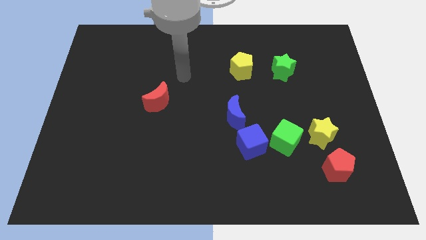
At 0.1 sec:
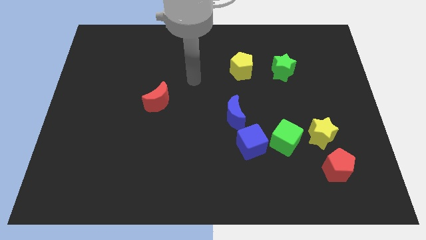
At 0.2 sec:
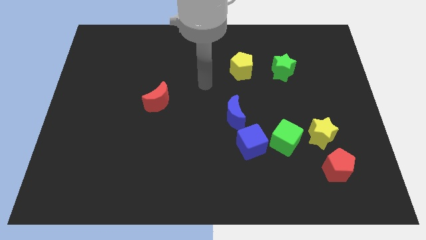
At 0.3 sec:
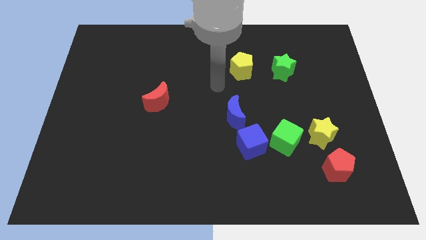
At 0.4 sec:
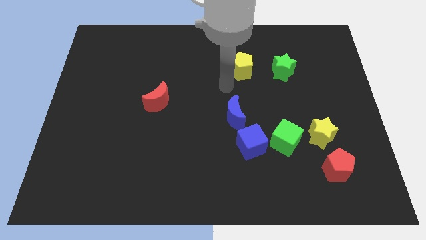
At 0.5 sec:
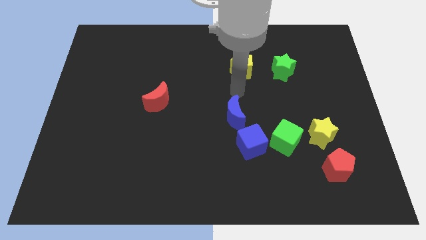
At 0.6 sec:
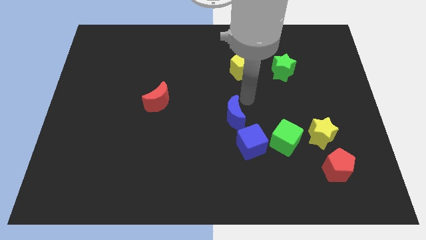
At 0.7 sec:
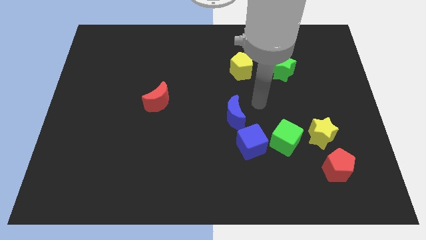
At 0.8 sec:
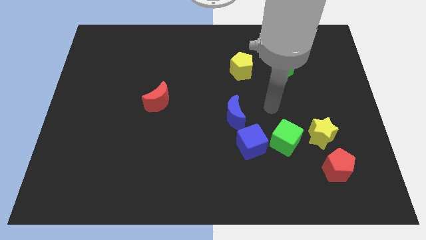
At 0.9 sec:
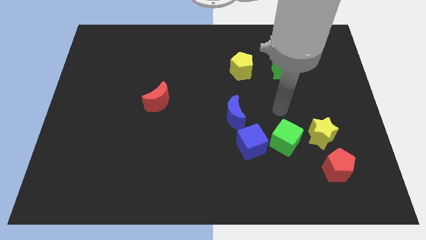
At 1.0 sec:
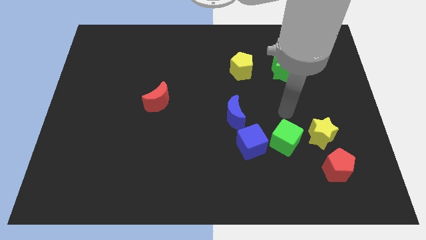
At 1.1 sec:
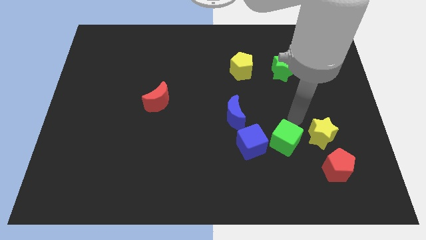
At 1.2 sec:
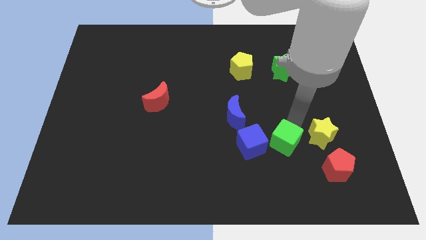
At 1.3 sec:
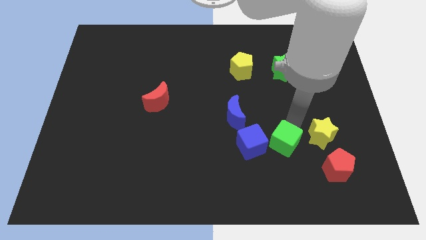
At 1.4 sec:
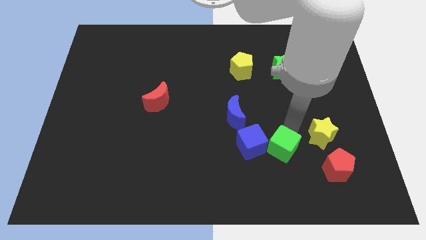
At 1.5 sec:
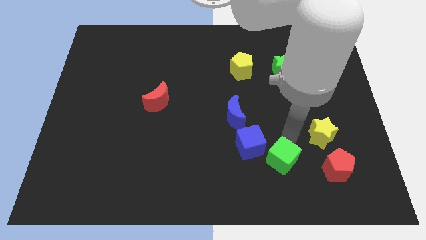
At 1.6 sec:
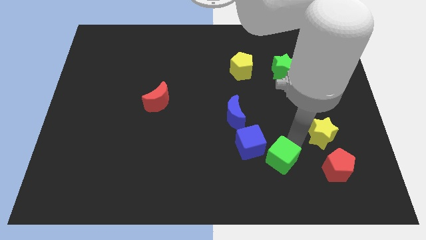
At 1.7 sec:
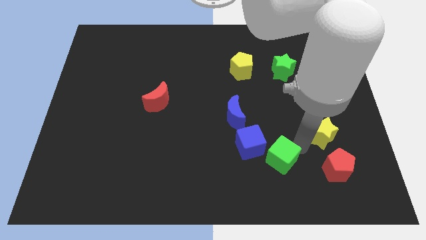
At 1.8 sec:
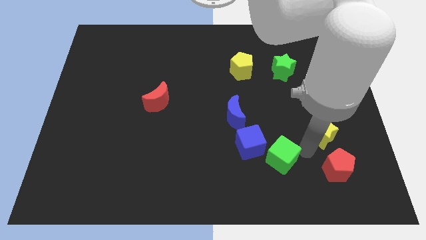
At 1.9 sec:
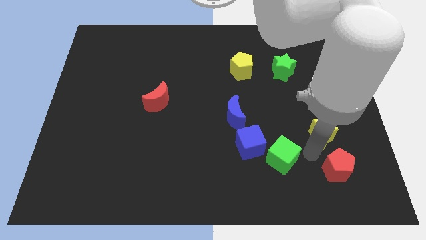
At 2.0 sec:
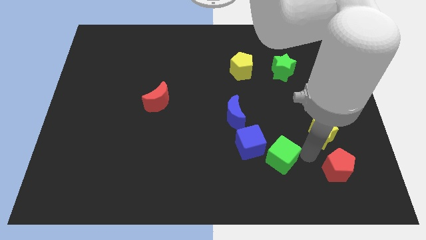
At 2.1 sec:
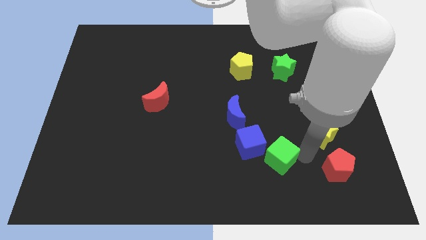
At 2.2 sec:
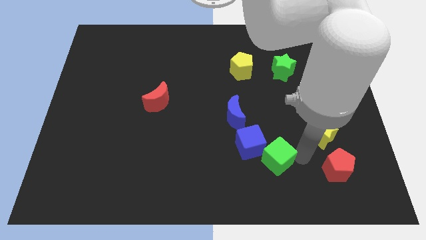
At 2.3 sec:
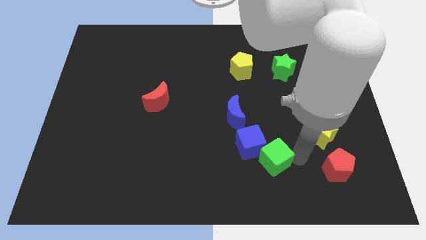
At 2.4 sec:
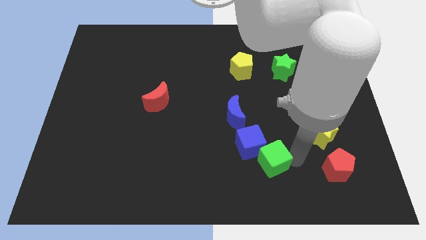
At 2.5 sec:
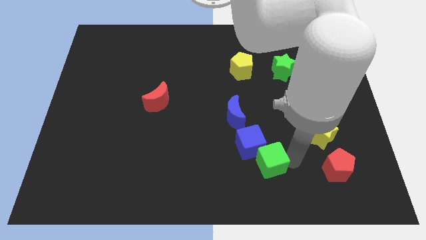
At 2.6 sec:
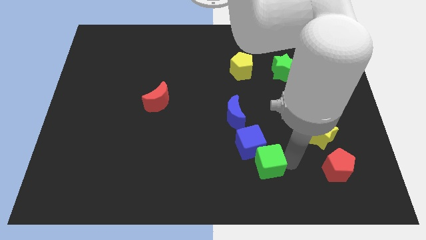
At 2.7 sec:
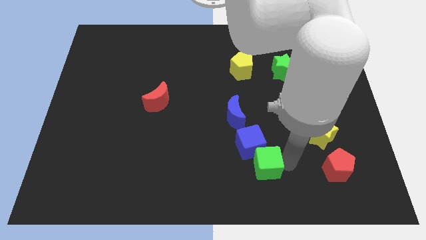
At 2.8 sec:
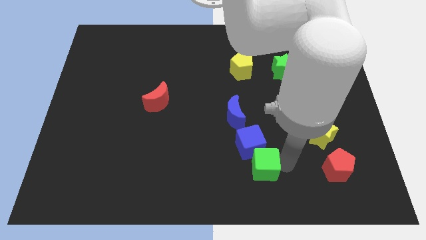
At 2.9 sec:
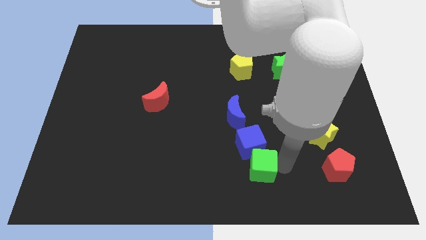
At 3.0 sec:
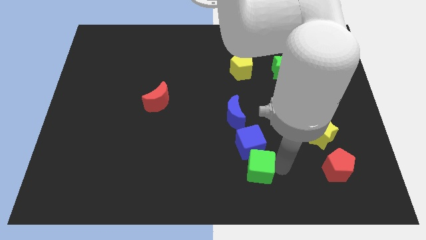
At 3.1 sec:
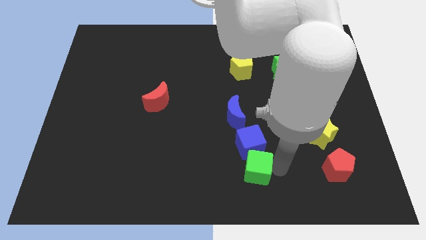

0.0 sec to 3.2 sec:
separate the green cube from the blue cube and yellow star

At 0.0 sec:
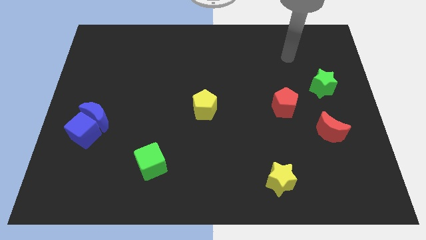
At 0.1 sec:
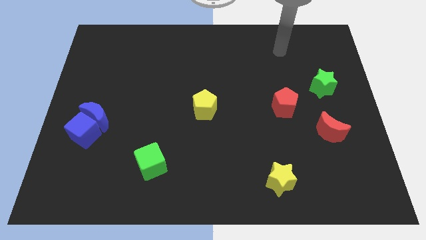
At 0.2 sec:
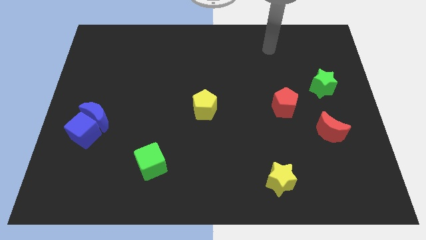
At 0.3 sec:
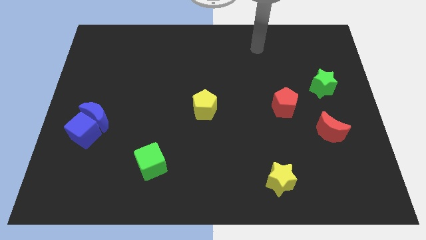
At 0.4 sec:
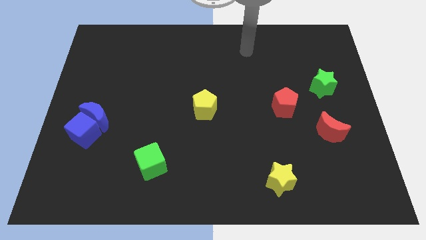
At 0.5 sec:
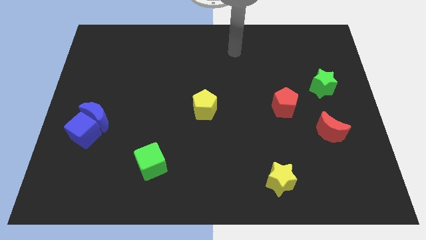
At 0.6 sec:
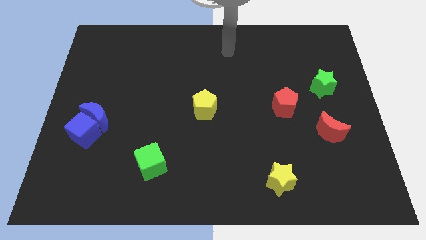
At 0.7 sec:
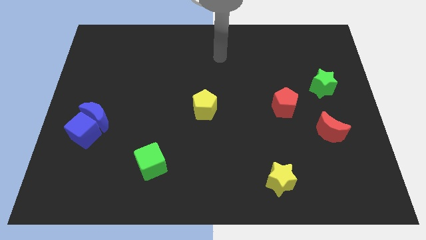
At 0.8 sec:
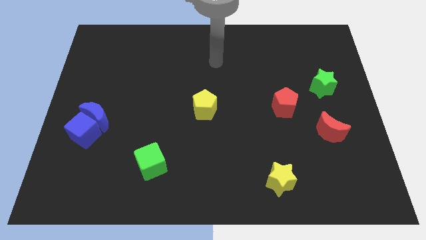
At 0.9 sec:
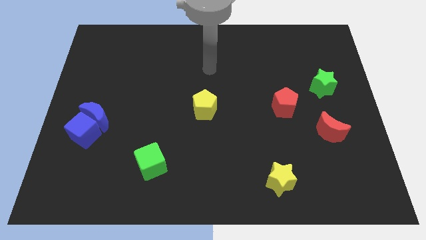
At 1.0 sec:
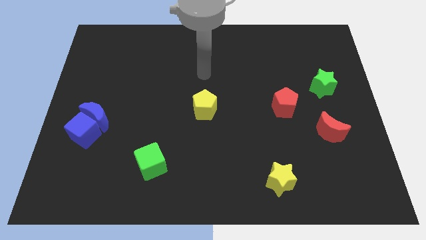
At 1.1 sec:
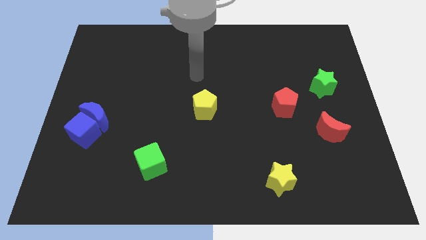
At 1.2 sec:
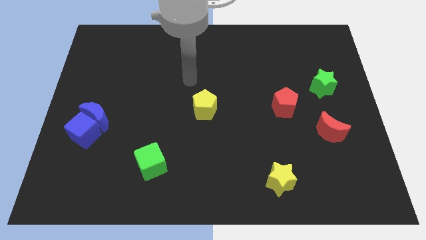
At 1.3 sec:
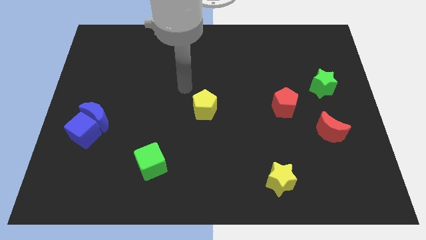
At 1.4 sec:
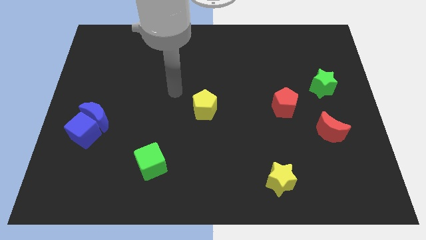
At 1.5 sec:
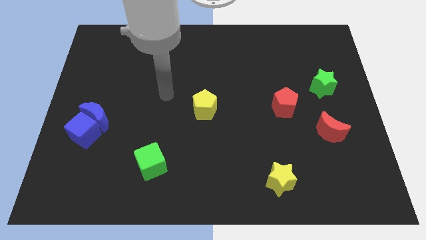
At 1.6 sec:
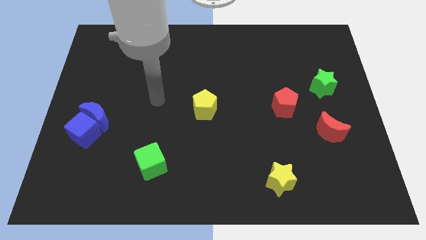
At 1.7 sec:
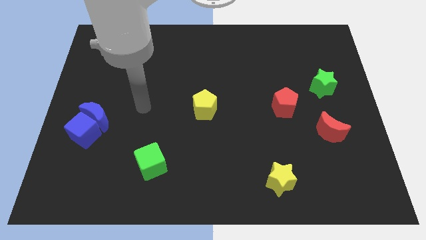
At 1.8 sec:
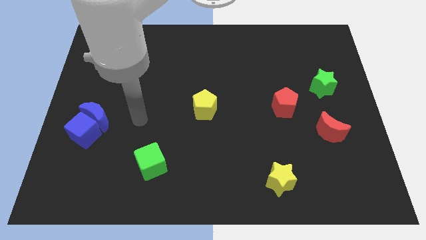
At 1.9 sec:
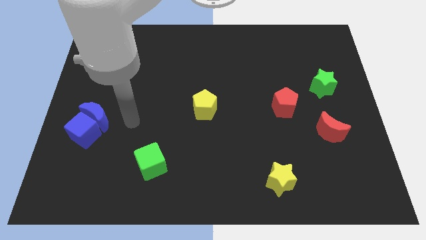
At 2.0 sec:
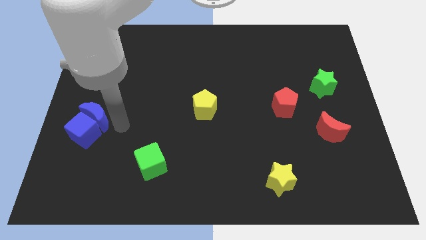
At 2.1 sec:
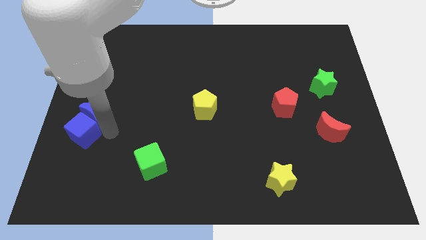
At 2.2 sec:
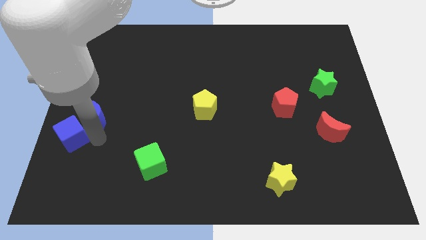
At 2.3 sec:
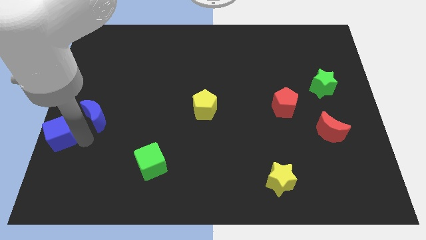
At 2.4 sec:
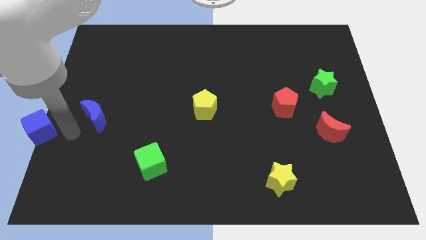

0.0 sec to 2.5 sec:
move the blue moon away from the blue cube

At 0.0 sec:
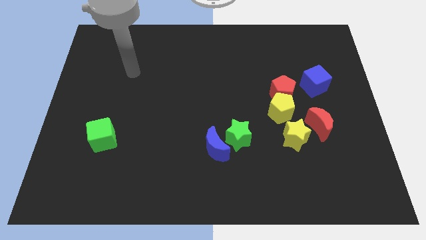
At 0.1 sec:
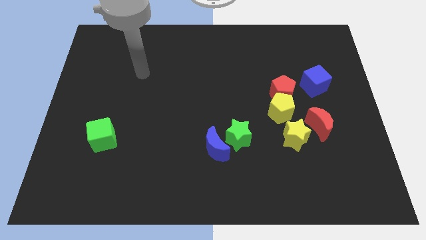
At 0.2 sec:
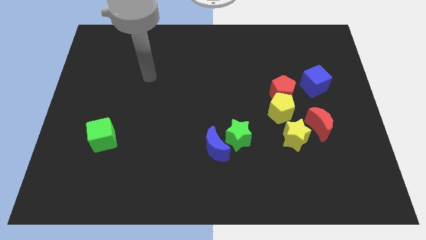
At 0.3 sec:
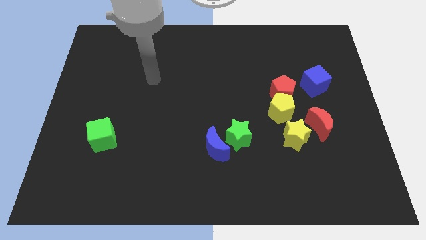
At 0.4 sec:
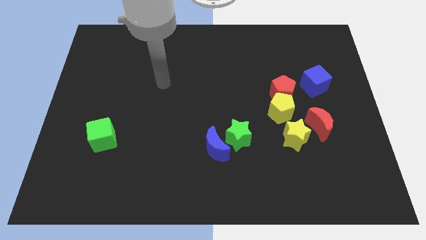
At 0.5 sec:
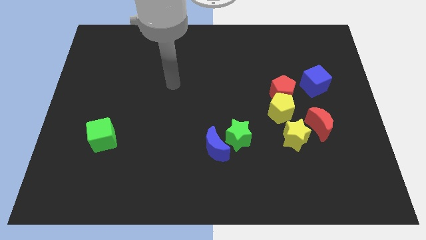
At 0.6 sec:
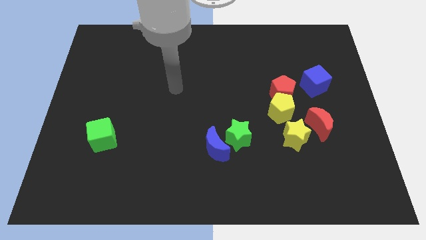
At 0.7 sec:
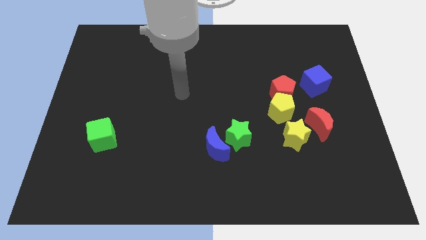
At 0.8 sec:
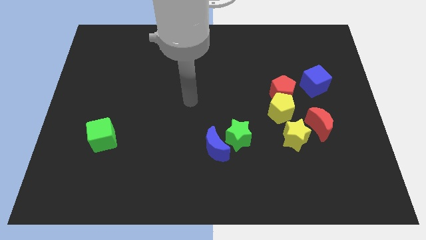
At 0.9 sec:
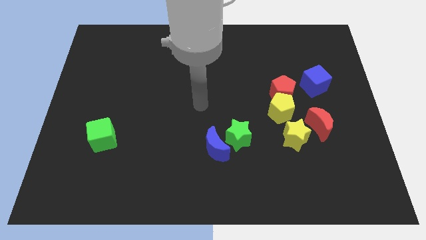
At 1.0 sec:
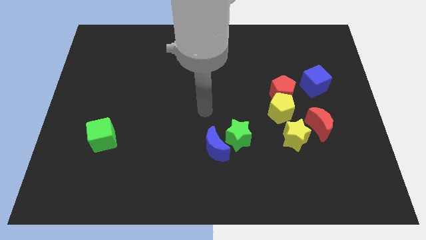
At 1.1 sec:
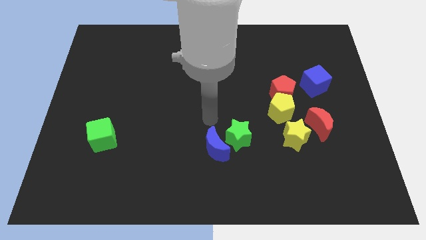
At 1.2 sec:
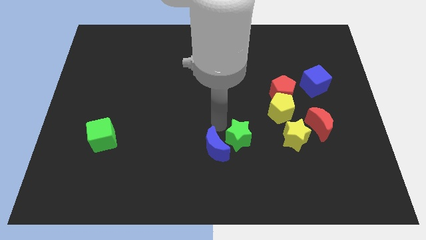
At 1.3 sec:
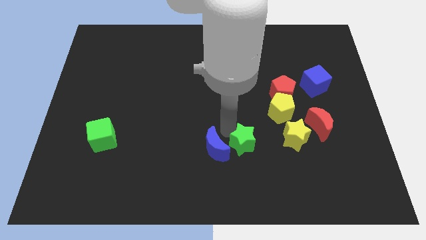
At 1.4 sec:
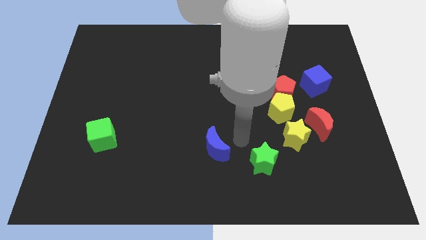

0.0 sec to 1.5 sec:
separate the blue moon from the green star

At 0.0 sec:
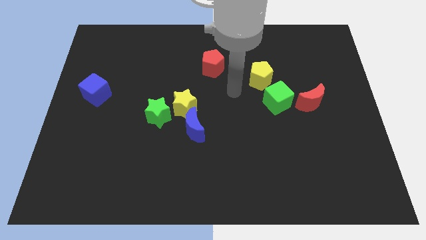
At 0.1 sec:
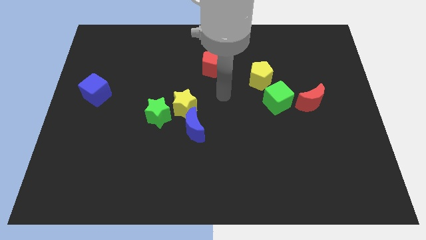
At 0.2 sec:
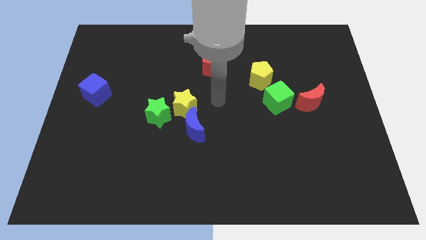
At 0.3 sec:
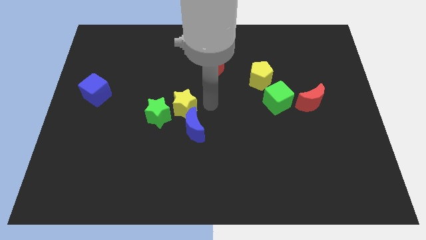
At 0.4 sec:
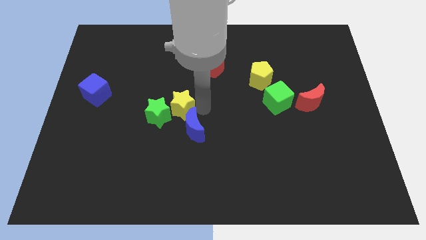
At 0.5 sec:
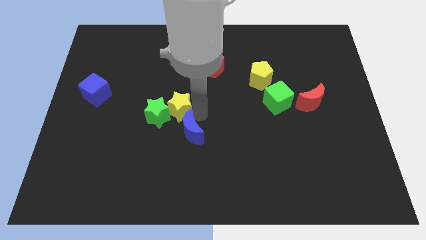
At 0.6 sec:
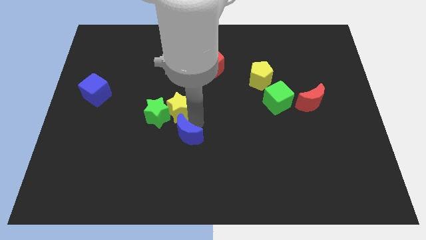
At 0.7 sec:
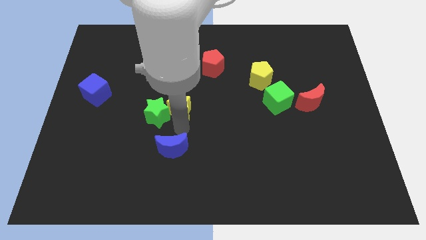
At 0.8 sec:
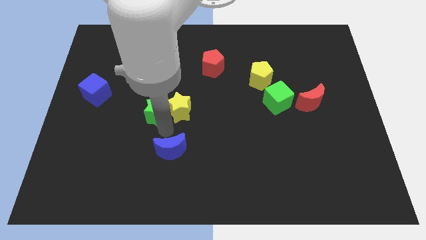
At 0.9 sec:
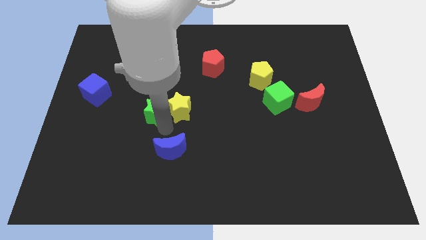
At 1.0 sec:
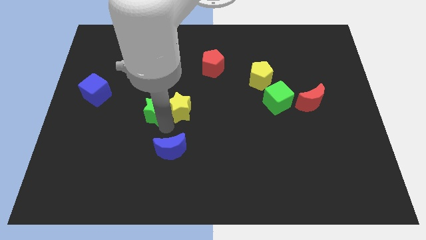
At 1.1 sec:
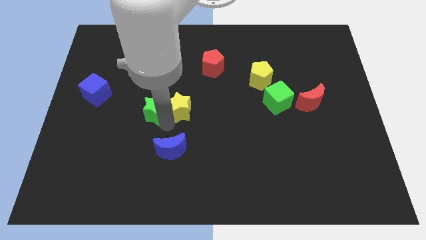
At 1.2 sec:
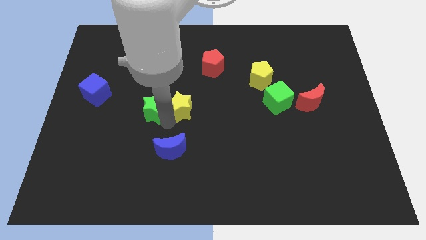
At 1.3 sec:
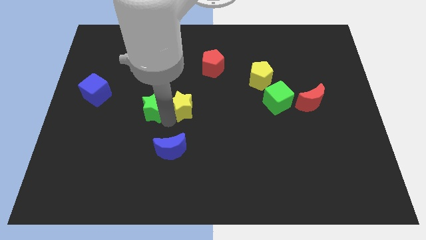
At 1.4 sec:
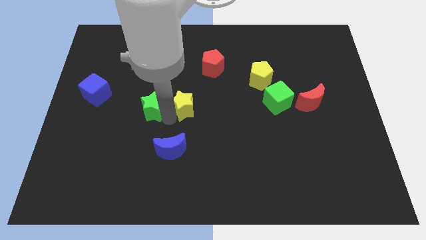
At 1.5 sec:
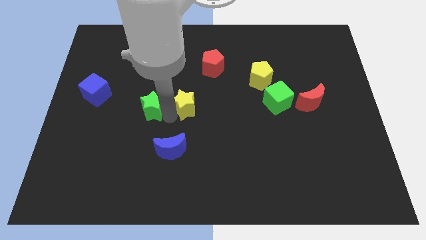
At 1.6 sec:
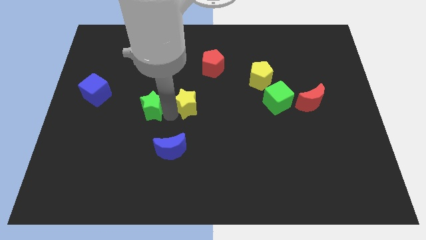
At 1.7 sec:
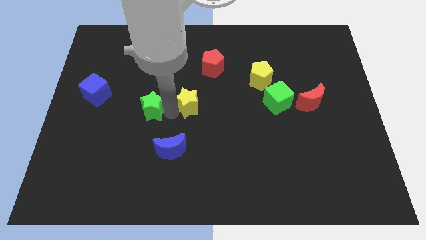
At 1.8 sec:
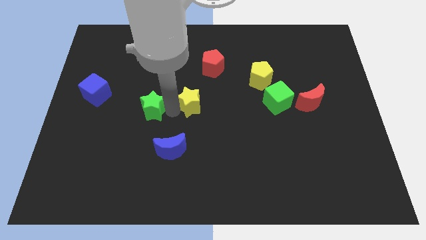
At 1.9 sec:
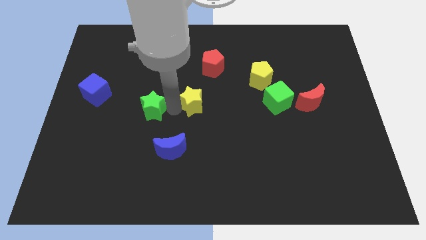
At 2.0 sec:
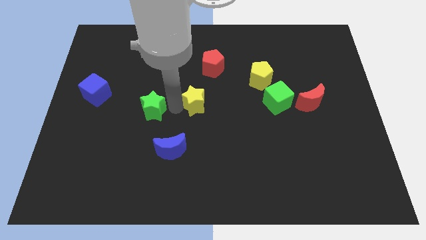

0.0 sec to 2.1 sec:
separate the yellow star from the green star and blue moon
